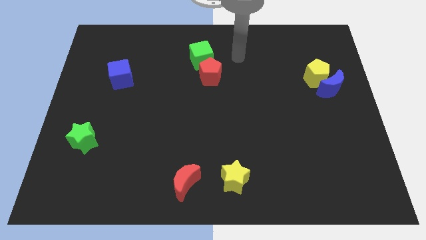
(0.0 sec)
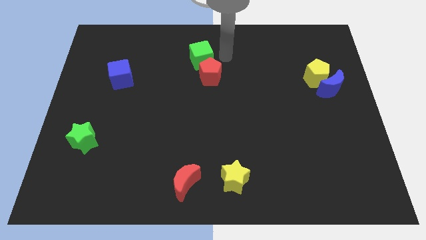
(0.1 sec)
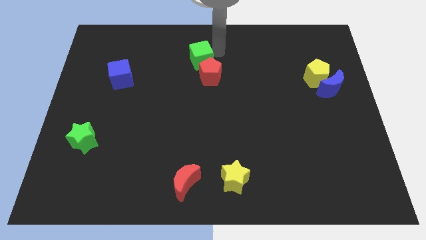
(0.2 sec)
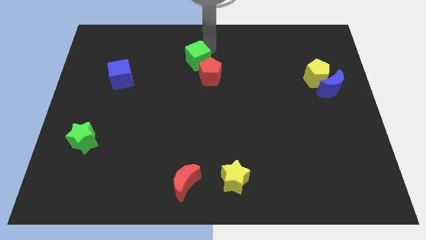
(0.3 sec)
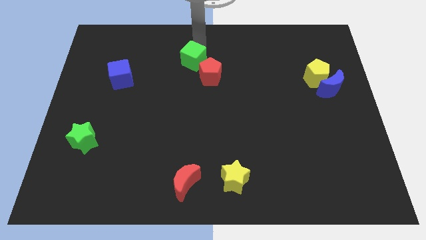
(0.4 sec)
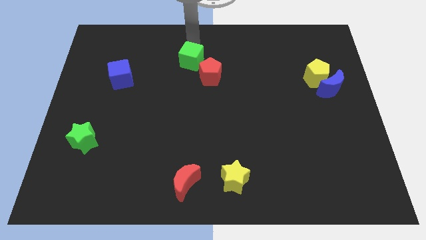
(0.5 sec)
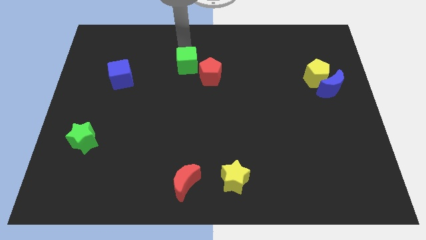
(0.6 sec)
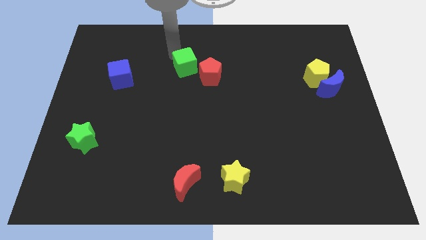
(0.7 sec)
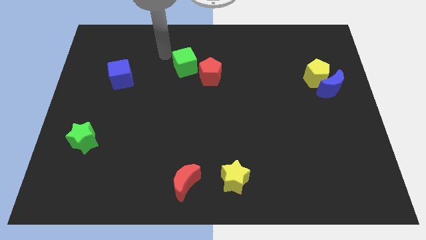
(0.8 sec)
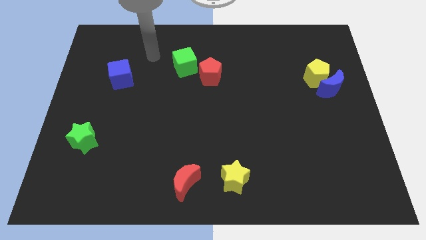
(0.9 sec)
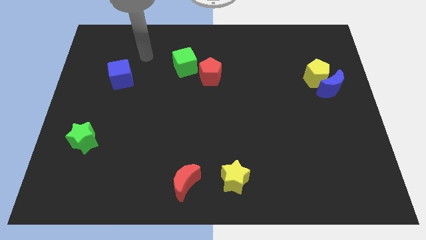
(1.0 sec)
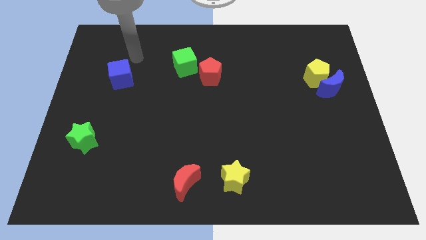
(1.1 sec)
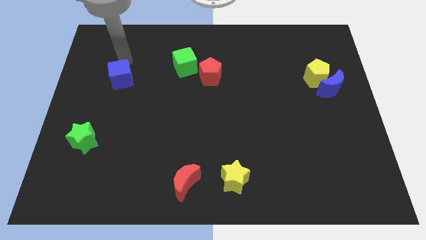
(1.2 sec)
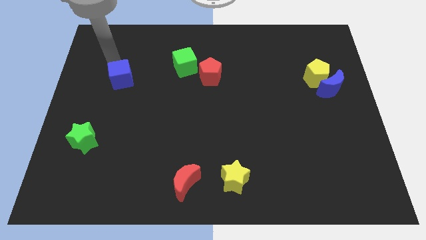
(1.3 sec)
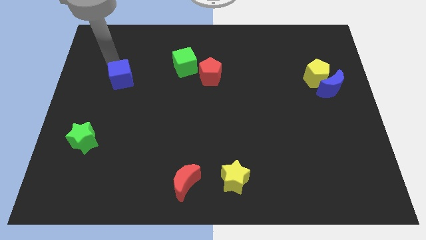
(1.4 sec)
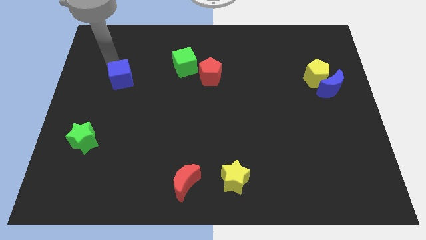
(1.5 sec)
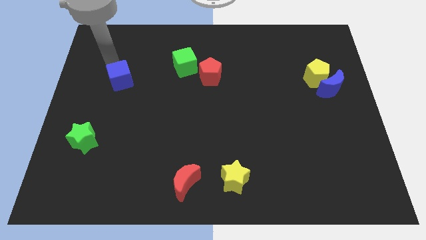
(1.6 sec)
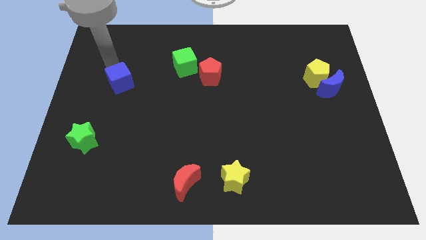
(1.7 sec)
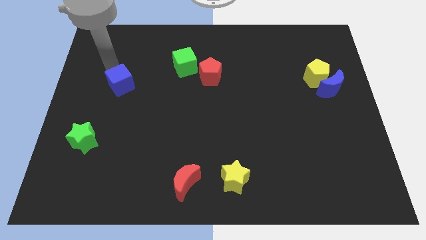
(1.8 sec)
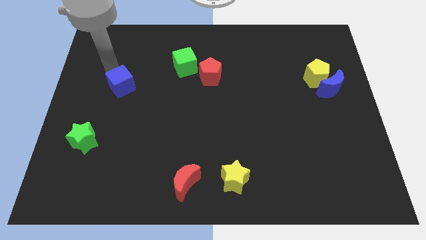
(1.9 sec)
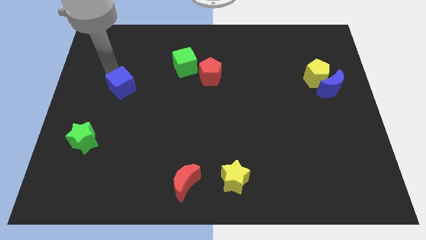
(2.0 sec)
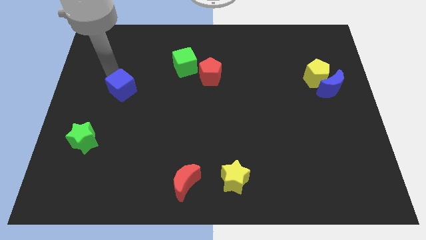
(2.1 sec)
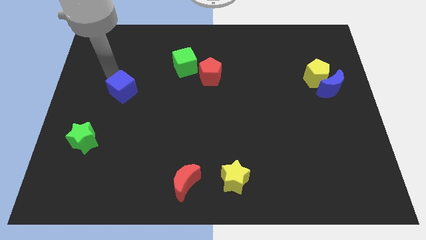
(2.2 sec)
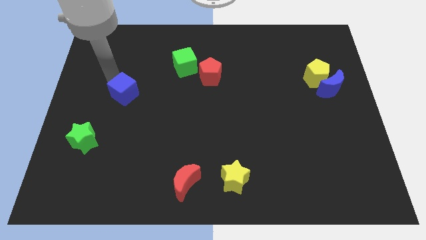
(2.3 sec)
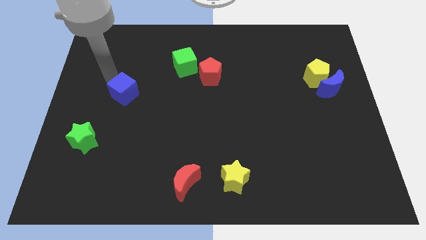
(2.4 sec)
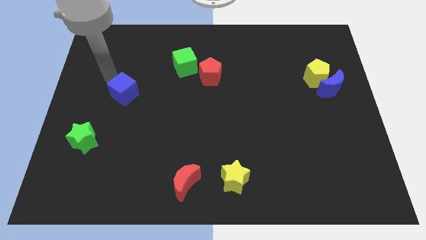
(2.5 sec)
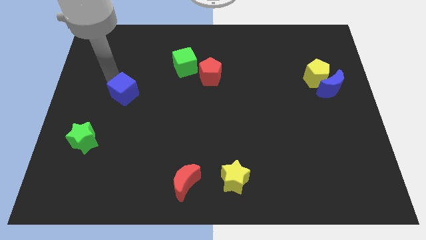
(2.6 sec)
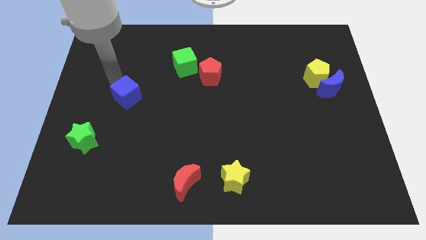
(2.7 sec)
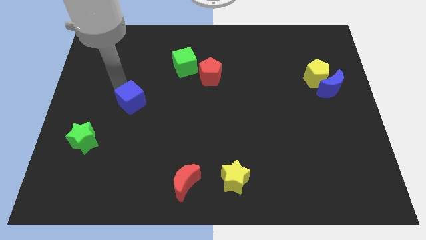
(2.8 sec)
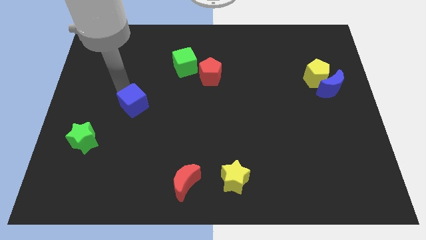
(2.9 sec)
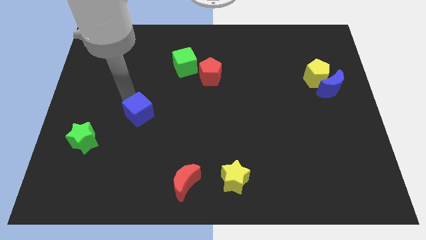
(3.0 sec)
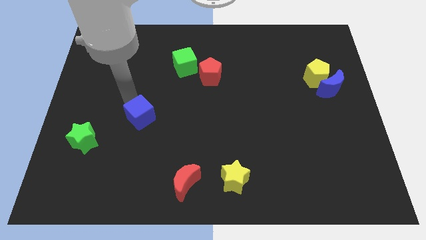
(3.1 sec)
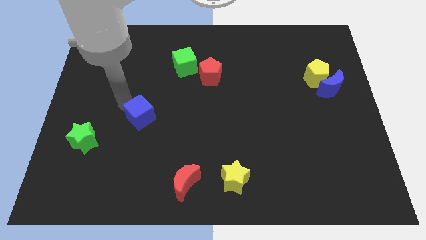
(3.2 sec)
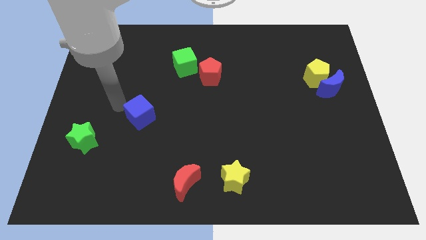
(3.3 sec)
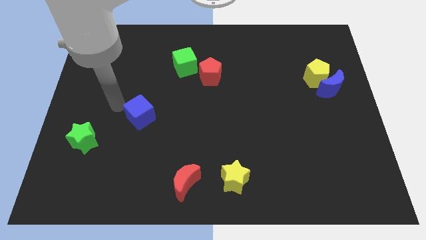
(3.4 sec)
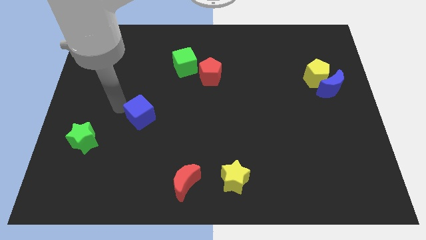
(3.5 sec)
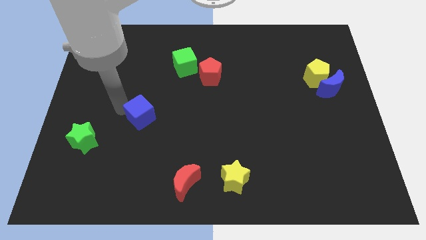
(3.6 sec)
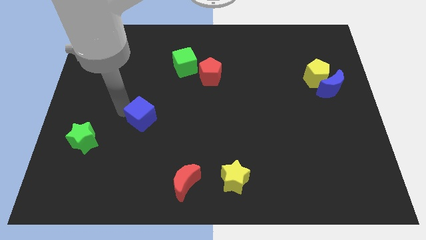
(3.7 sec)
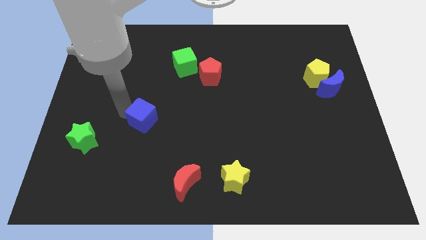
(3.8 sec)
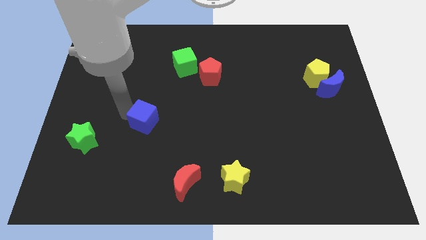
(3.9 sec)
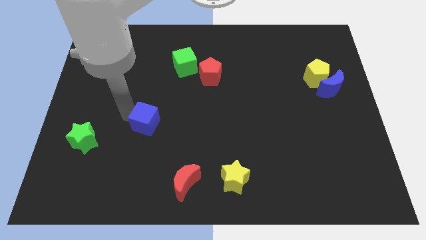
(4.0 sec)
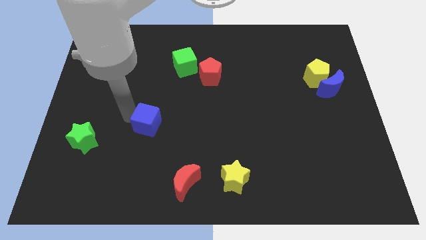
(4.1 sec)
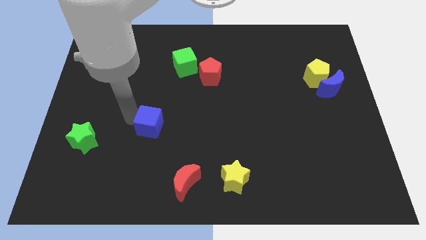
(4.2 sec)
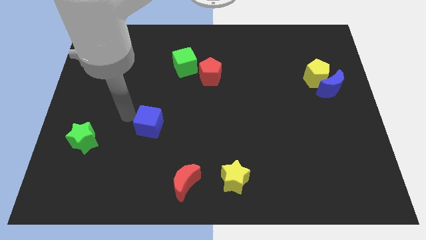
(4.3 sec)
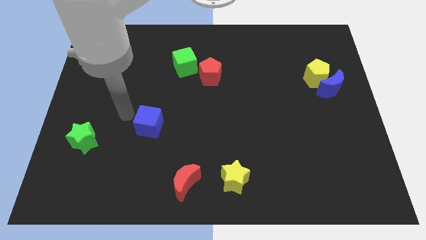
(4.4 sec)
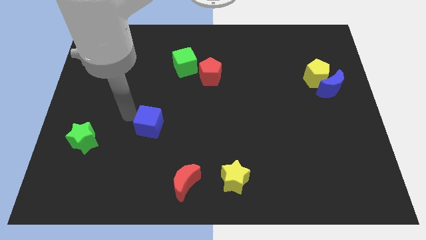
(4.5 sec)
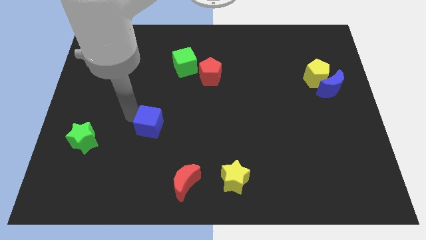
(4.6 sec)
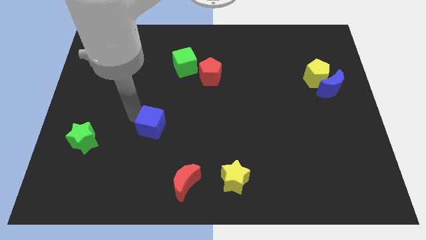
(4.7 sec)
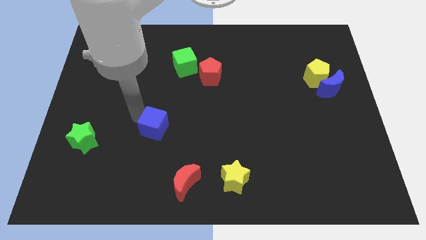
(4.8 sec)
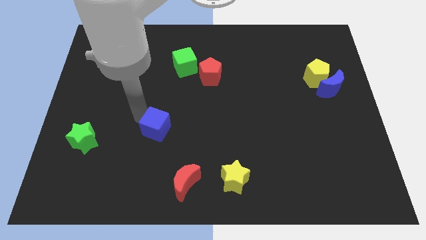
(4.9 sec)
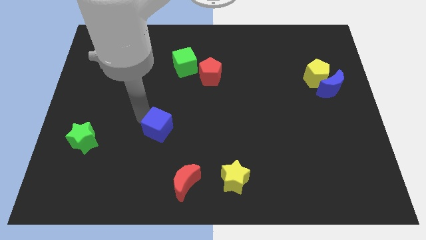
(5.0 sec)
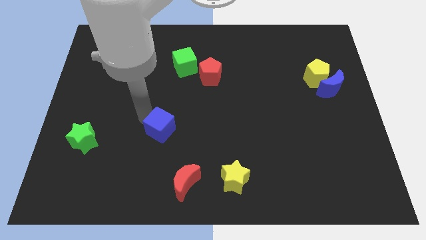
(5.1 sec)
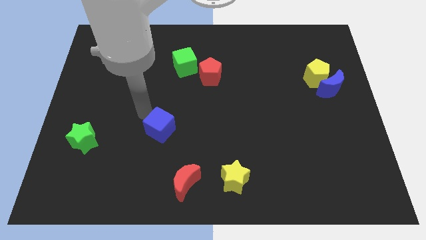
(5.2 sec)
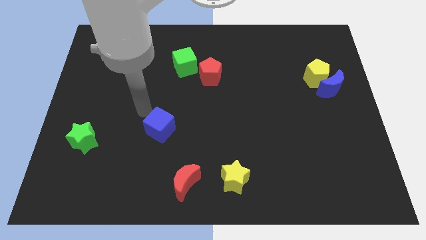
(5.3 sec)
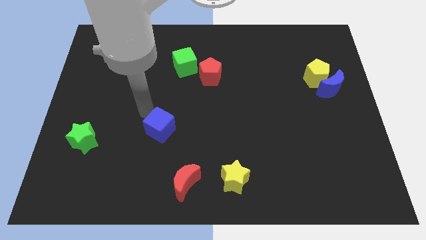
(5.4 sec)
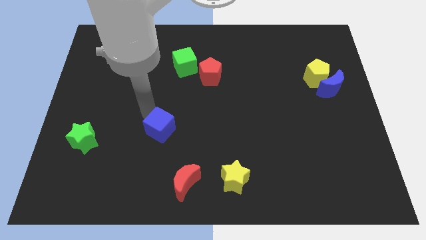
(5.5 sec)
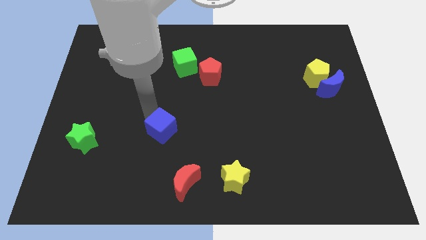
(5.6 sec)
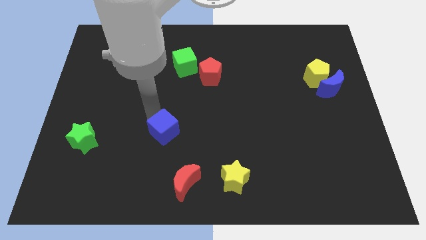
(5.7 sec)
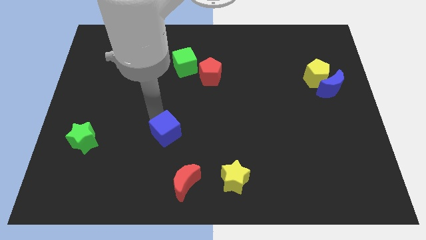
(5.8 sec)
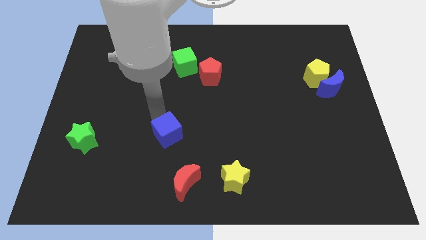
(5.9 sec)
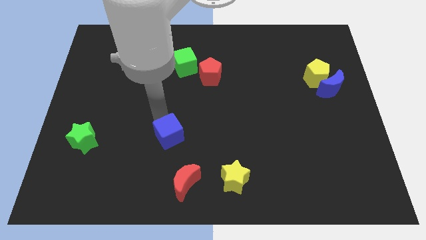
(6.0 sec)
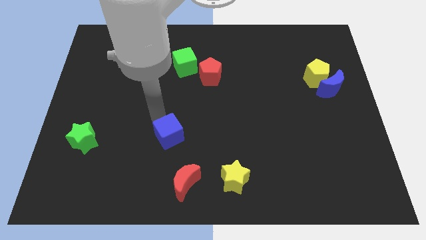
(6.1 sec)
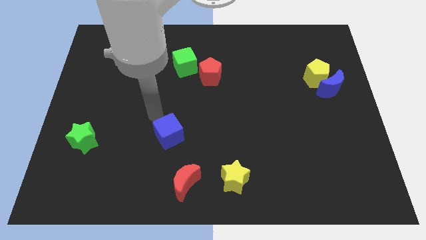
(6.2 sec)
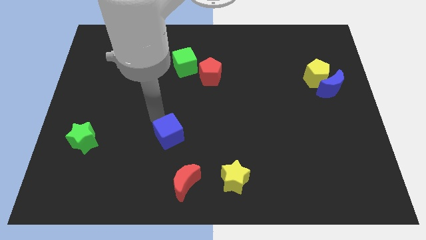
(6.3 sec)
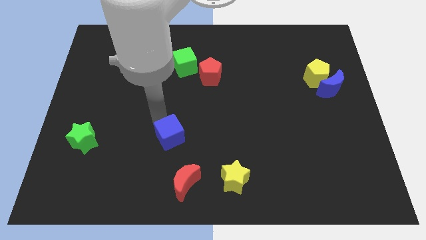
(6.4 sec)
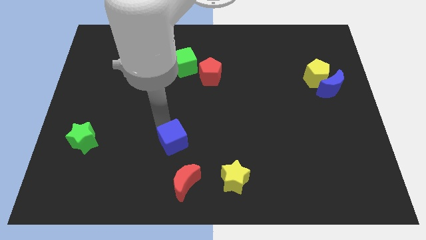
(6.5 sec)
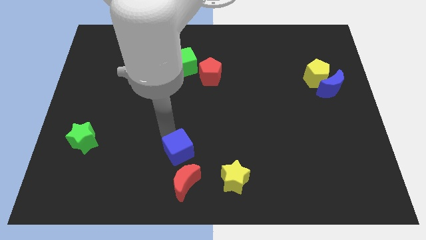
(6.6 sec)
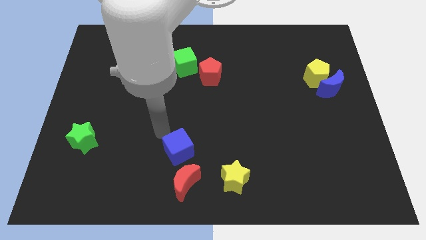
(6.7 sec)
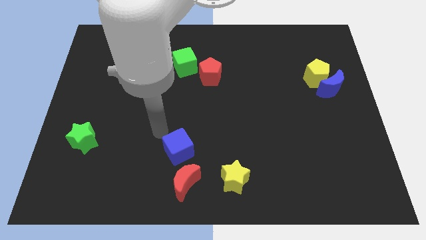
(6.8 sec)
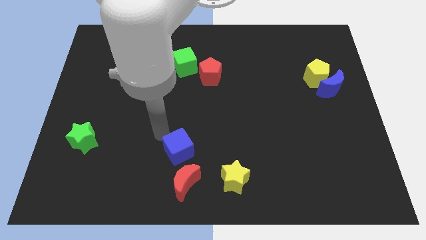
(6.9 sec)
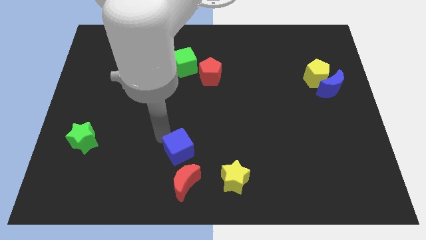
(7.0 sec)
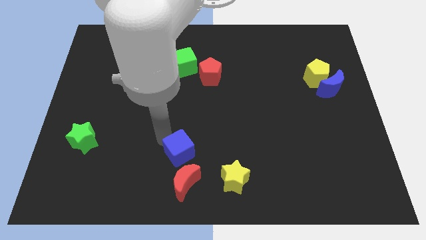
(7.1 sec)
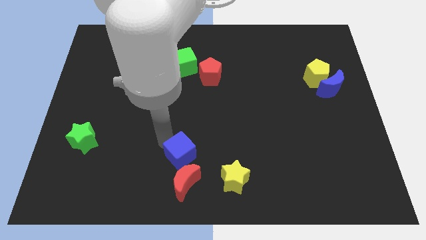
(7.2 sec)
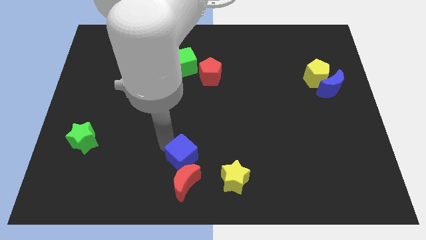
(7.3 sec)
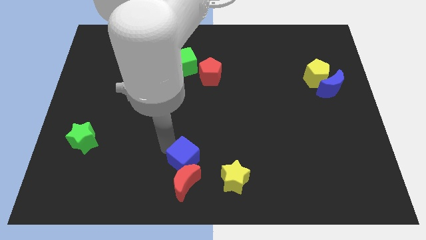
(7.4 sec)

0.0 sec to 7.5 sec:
slide the blue cube to the bottom side
